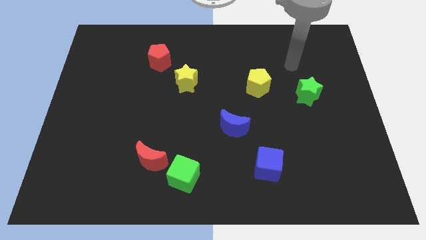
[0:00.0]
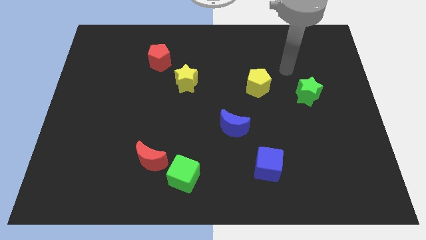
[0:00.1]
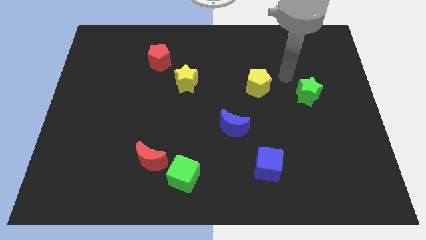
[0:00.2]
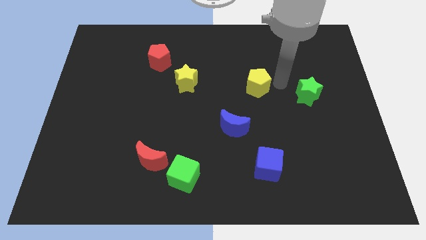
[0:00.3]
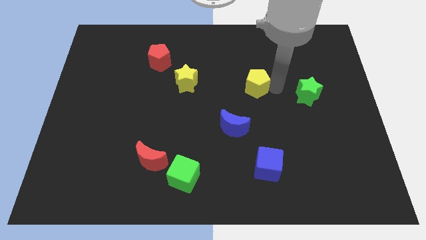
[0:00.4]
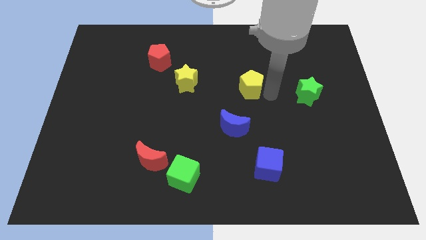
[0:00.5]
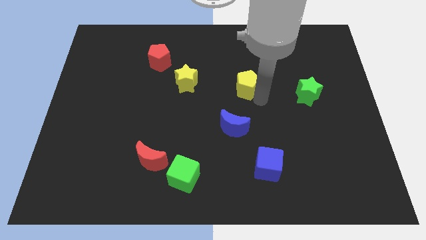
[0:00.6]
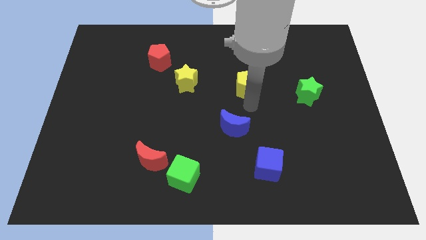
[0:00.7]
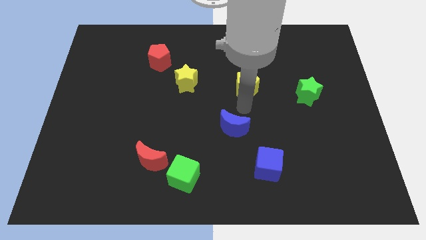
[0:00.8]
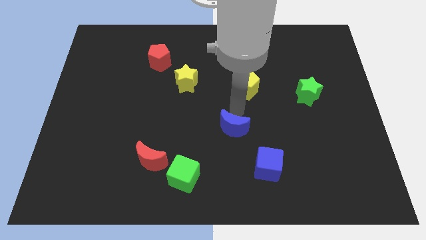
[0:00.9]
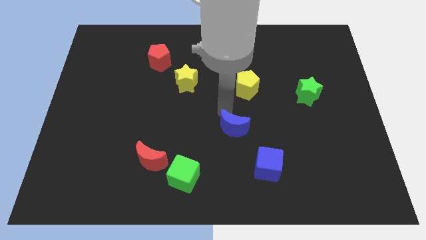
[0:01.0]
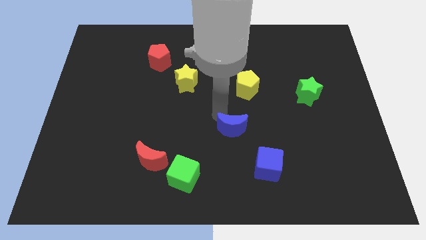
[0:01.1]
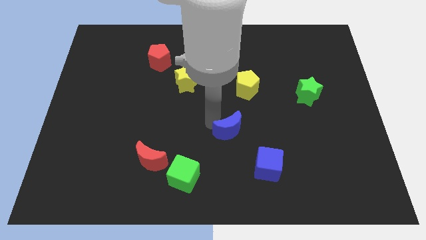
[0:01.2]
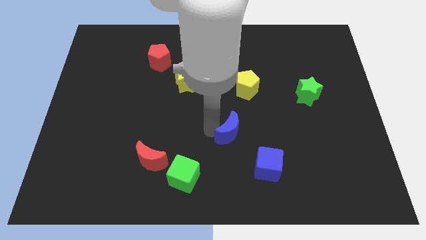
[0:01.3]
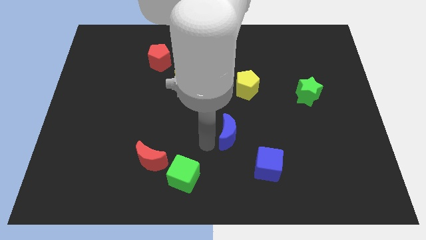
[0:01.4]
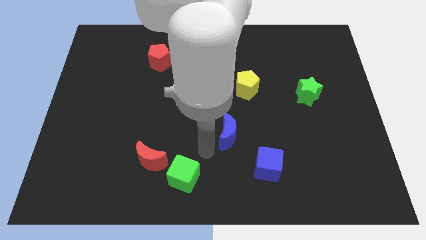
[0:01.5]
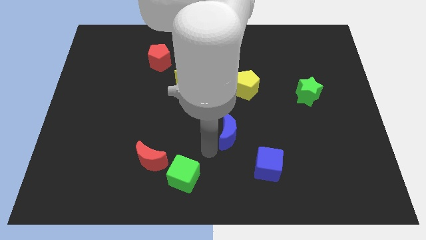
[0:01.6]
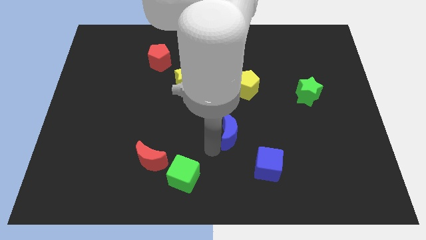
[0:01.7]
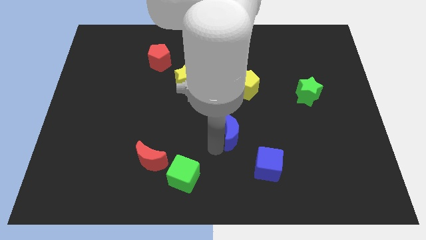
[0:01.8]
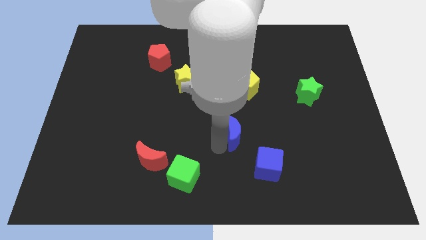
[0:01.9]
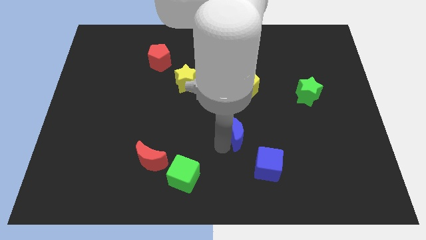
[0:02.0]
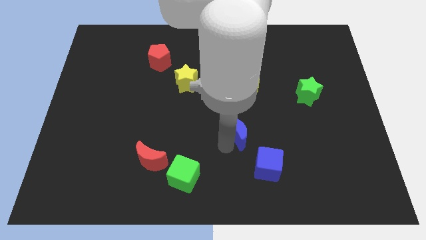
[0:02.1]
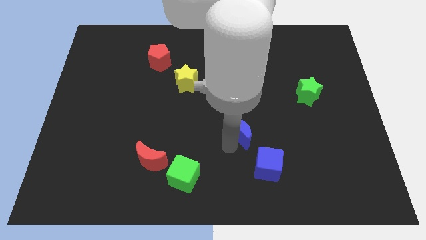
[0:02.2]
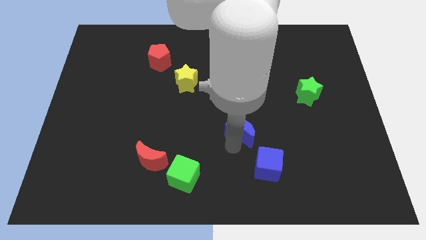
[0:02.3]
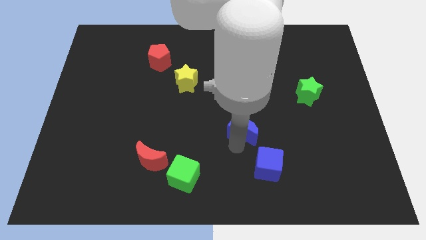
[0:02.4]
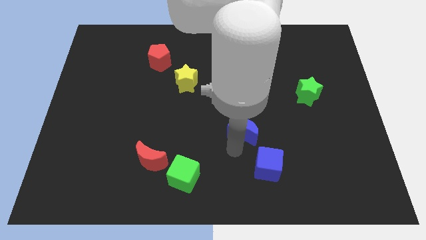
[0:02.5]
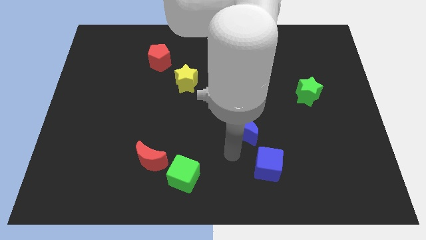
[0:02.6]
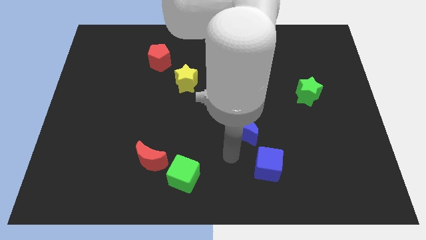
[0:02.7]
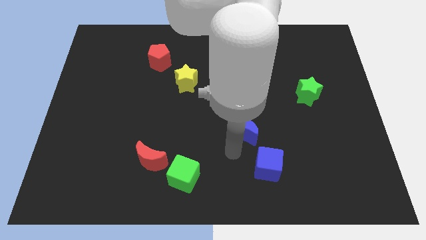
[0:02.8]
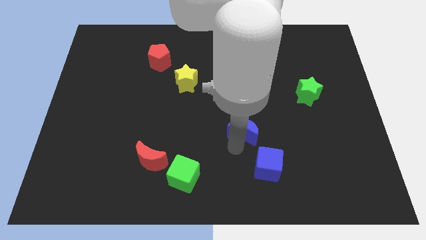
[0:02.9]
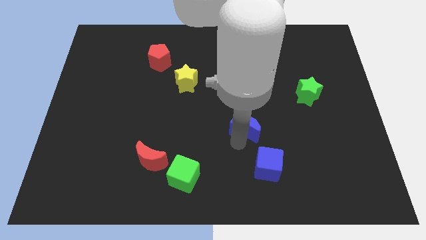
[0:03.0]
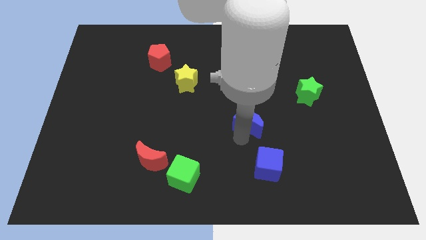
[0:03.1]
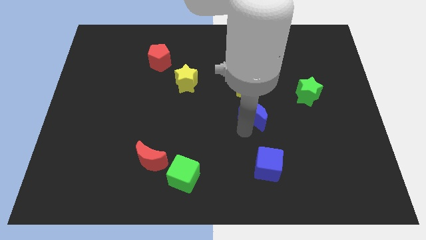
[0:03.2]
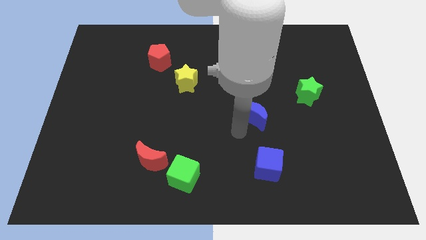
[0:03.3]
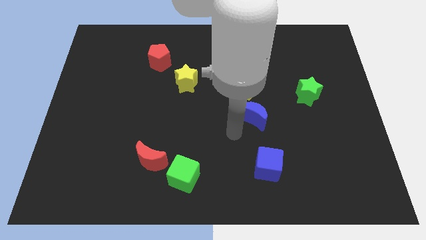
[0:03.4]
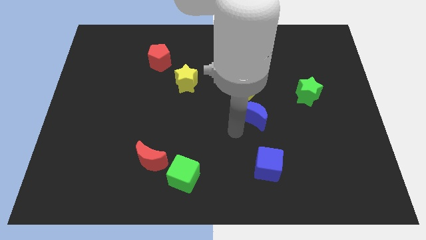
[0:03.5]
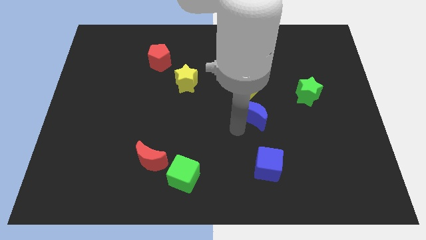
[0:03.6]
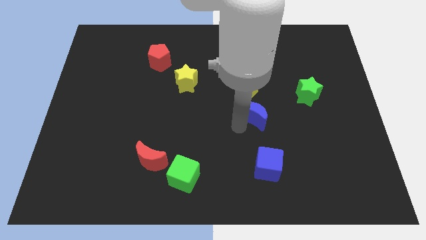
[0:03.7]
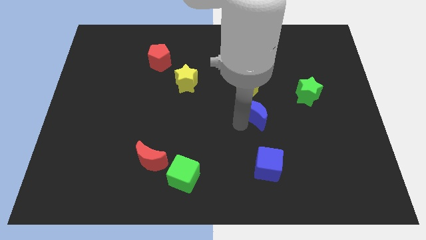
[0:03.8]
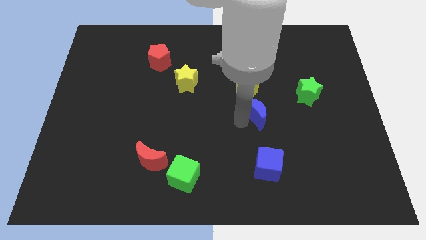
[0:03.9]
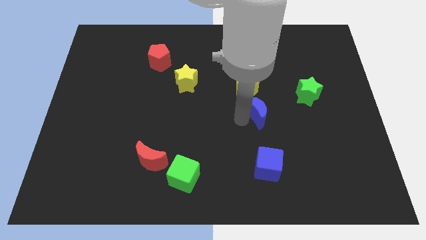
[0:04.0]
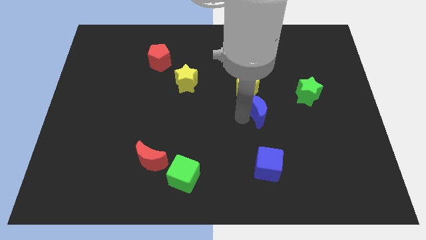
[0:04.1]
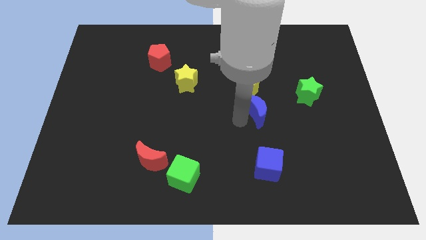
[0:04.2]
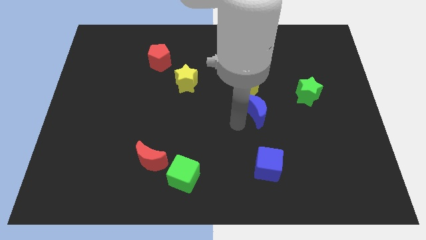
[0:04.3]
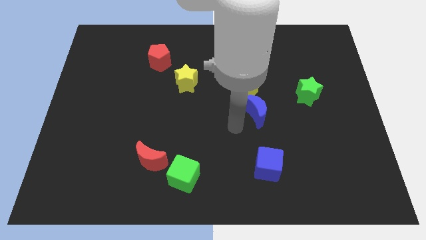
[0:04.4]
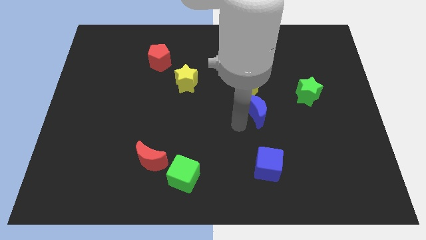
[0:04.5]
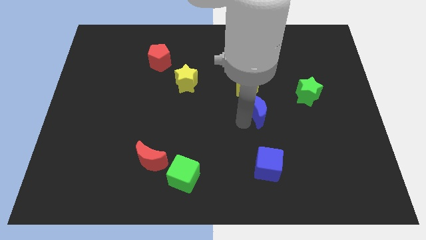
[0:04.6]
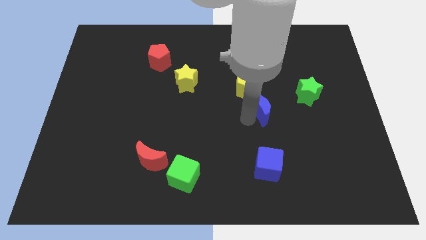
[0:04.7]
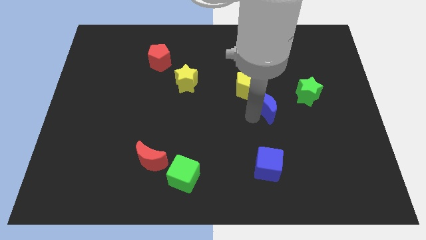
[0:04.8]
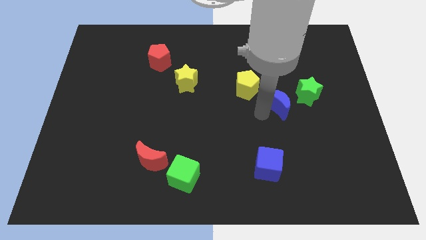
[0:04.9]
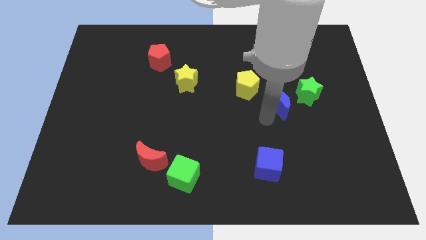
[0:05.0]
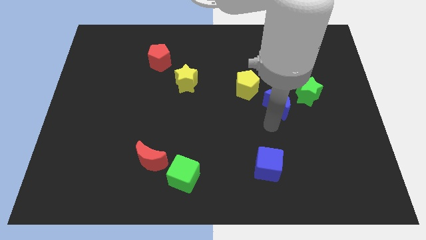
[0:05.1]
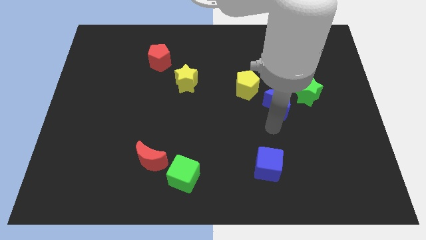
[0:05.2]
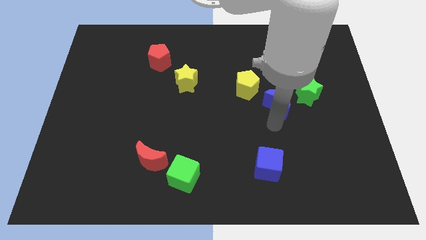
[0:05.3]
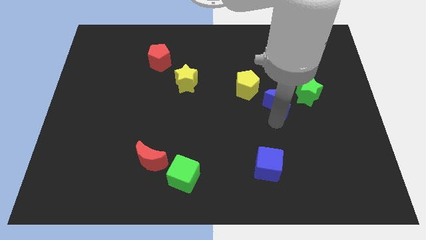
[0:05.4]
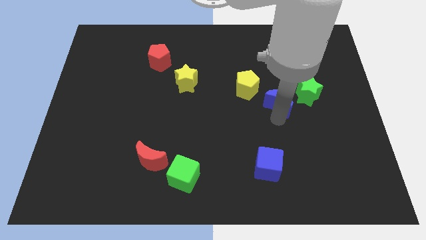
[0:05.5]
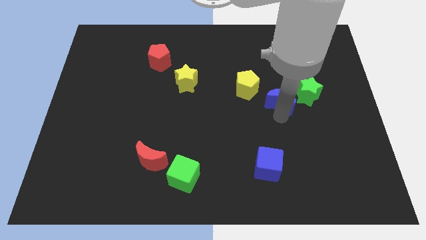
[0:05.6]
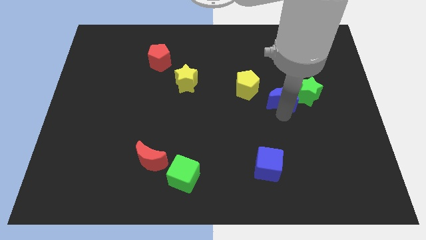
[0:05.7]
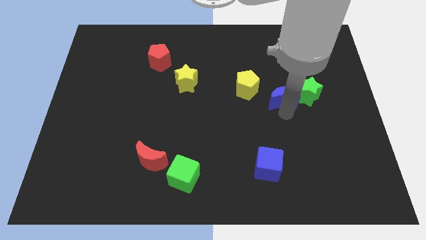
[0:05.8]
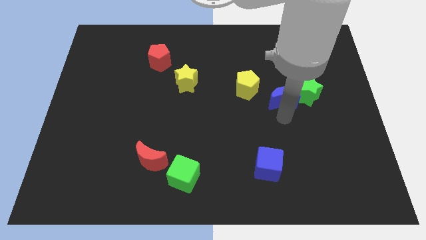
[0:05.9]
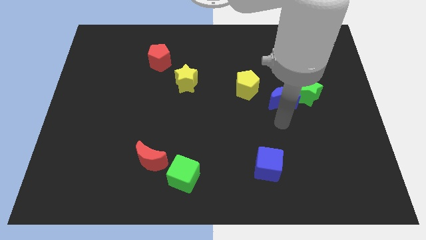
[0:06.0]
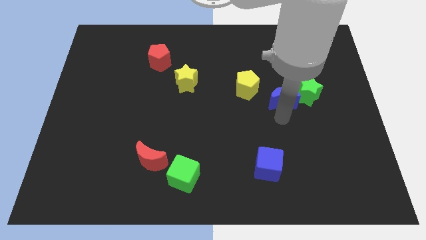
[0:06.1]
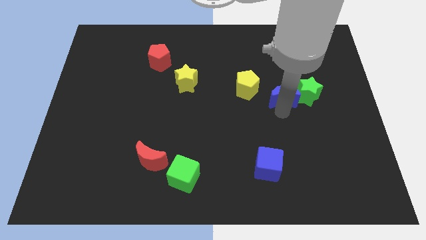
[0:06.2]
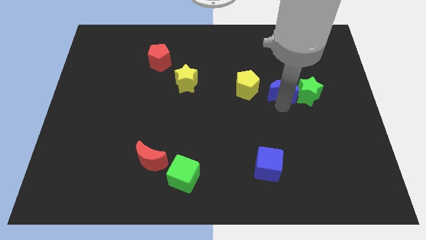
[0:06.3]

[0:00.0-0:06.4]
put the blue moon to the top left of the green star

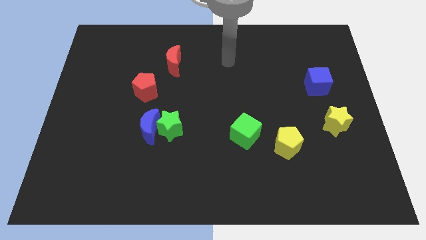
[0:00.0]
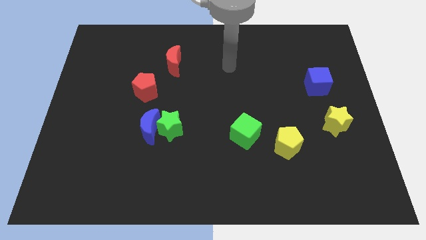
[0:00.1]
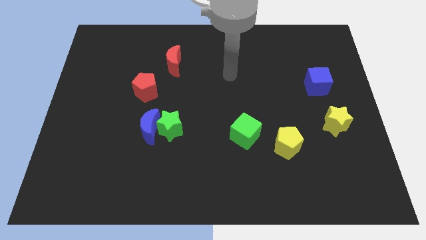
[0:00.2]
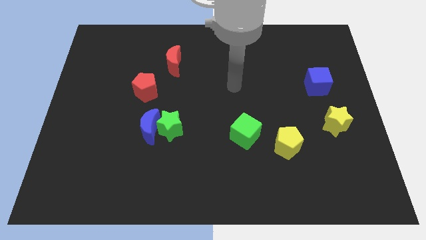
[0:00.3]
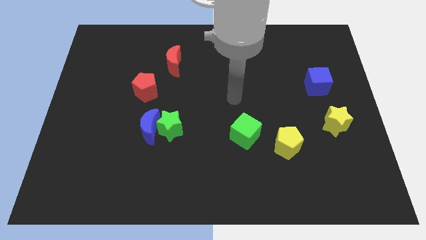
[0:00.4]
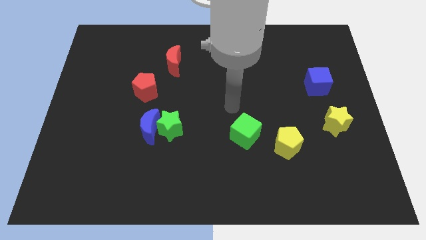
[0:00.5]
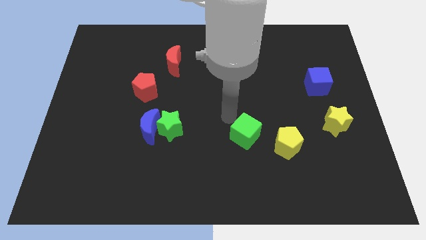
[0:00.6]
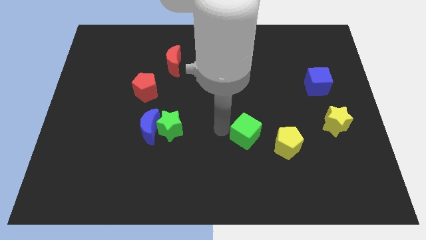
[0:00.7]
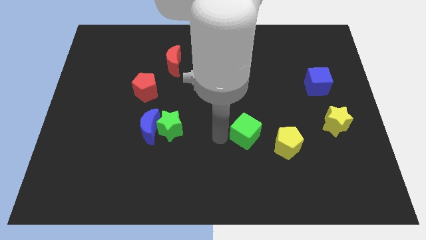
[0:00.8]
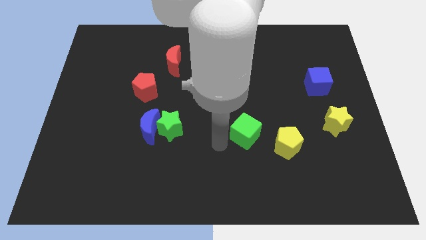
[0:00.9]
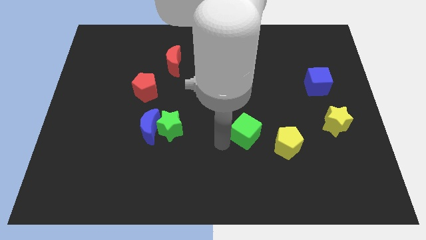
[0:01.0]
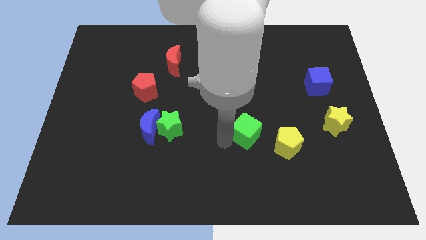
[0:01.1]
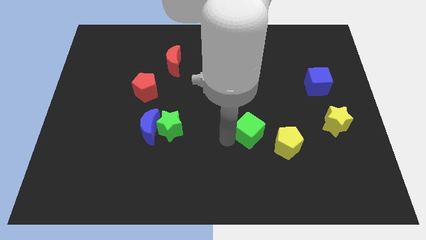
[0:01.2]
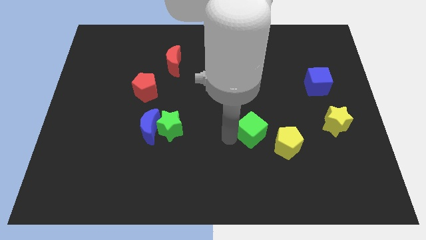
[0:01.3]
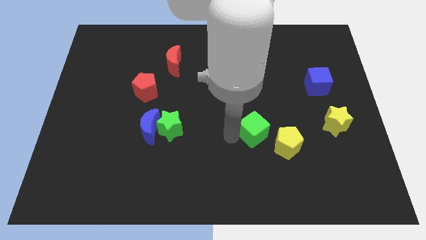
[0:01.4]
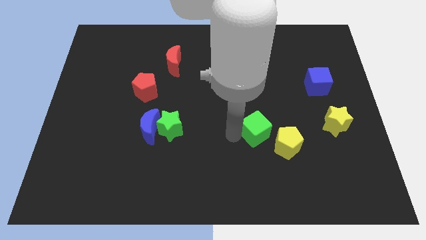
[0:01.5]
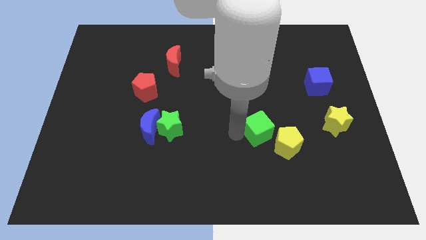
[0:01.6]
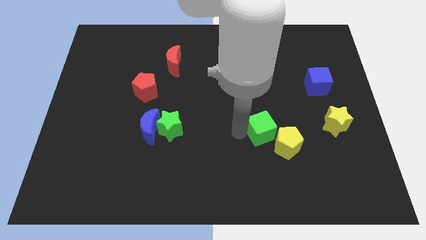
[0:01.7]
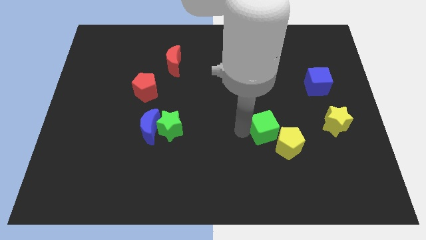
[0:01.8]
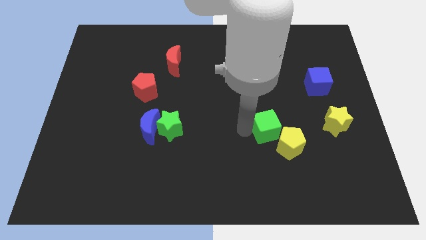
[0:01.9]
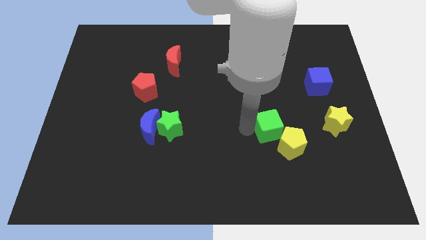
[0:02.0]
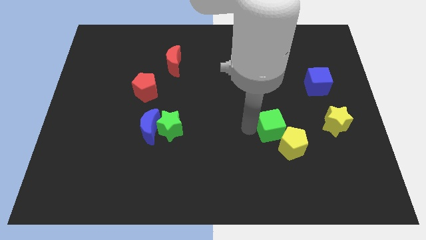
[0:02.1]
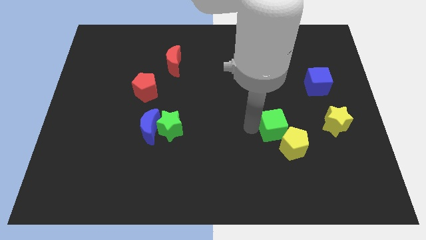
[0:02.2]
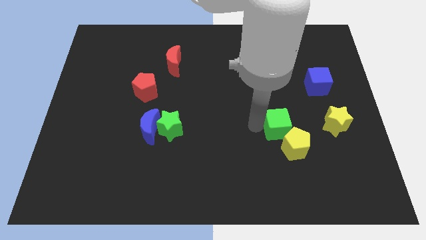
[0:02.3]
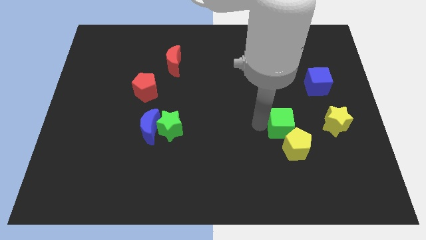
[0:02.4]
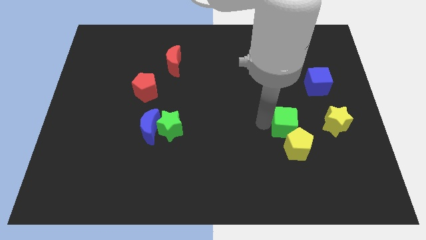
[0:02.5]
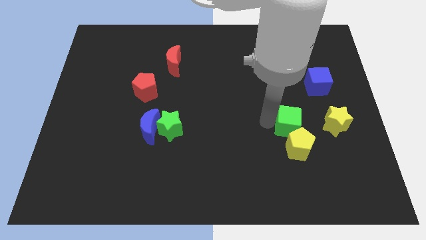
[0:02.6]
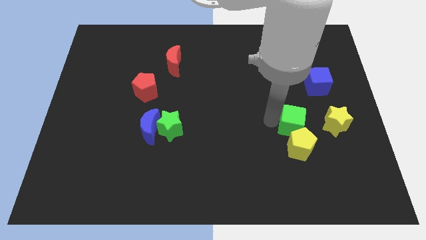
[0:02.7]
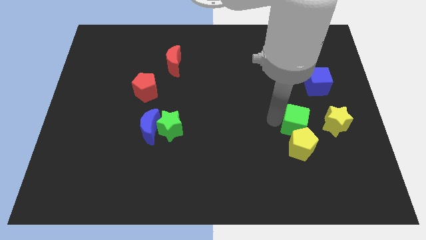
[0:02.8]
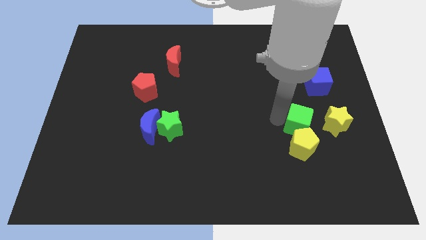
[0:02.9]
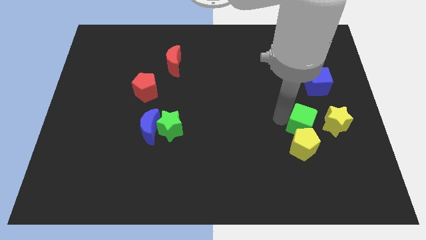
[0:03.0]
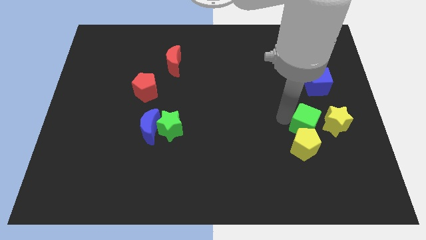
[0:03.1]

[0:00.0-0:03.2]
slide the green cube below the blue cube
